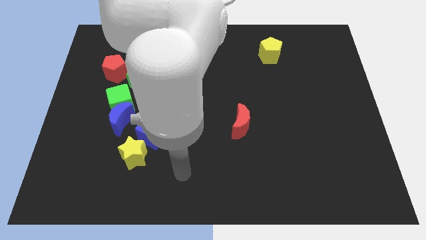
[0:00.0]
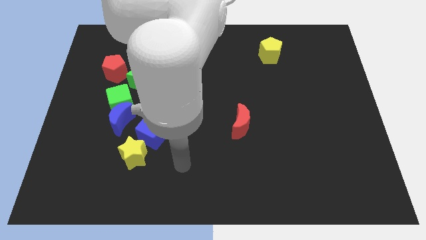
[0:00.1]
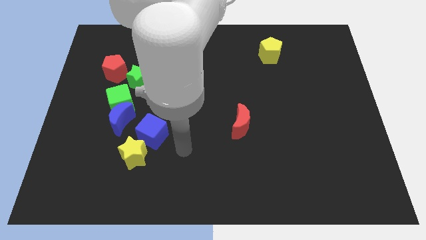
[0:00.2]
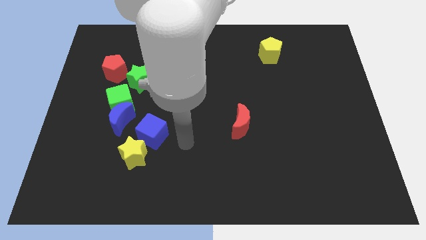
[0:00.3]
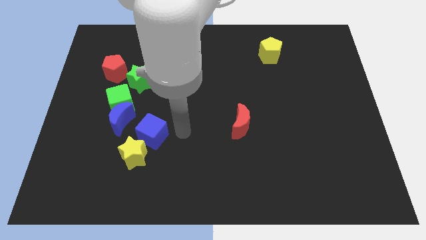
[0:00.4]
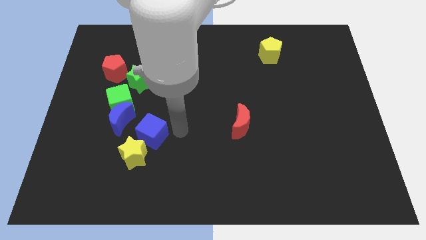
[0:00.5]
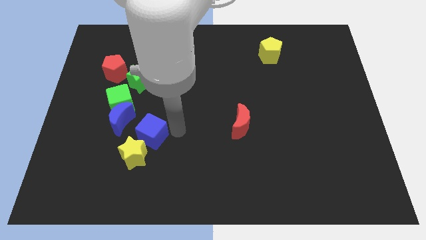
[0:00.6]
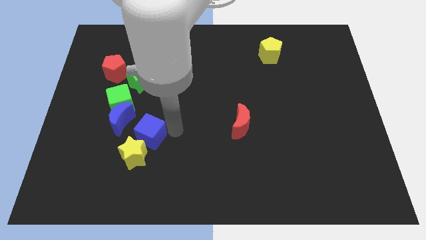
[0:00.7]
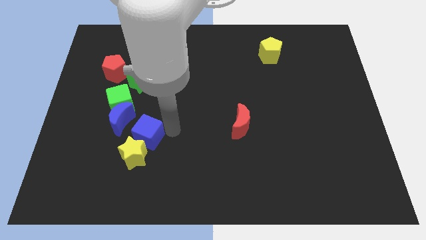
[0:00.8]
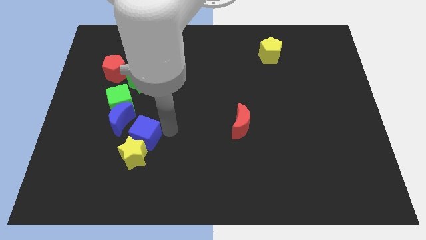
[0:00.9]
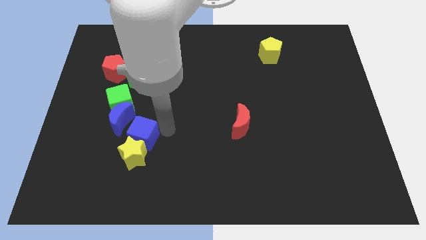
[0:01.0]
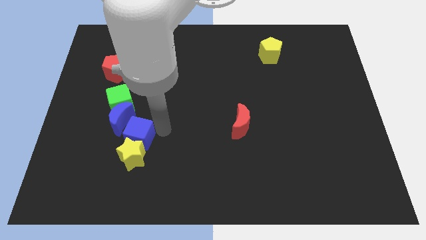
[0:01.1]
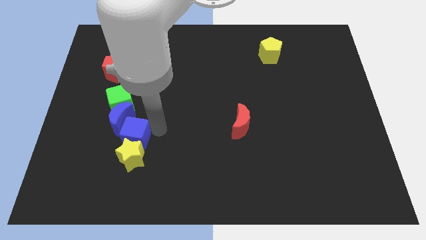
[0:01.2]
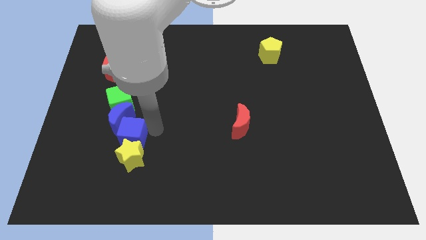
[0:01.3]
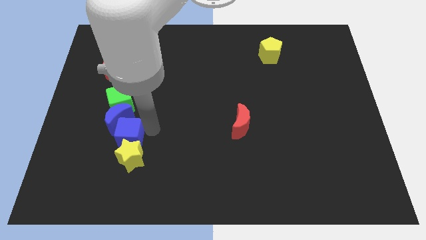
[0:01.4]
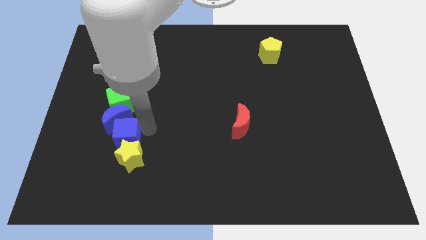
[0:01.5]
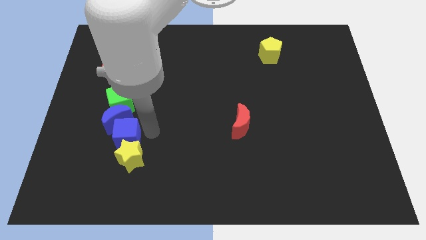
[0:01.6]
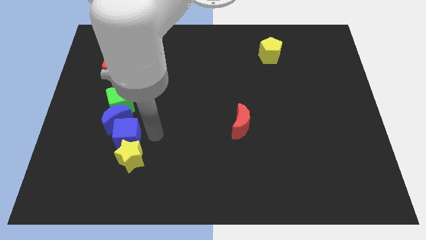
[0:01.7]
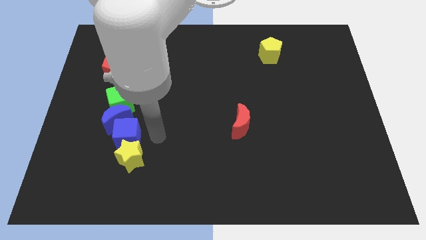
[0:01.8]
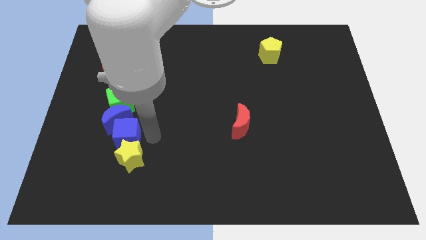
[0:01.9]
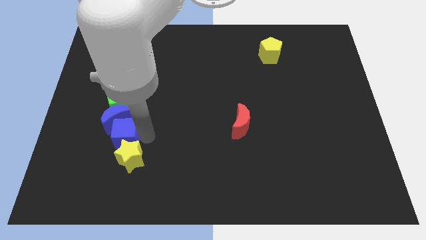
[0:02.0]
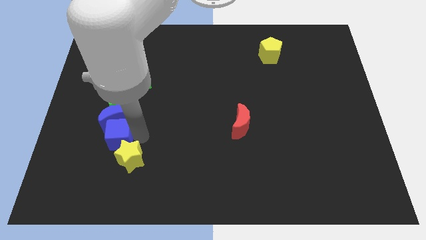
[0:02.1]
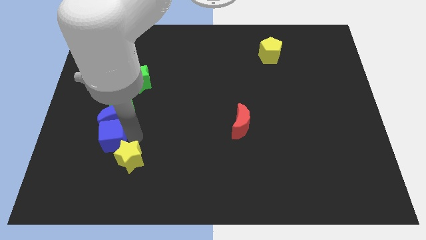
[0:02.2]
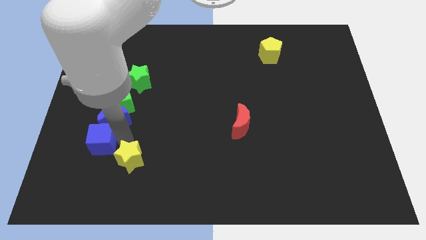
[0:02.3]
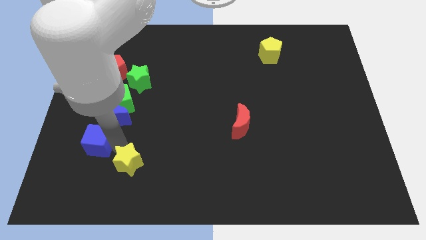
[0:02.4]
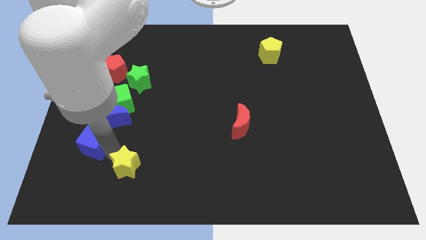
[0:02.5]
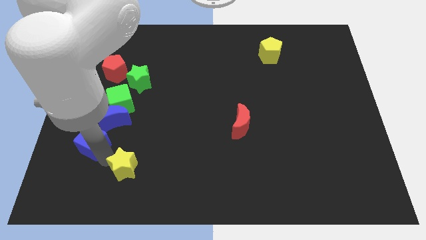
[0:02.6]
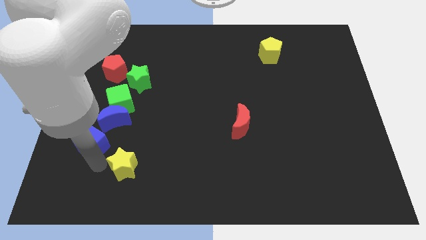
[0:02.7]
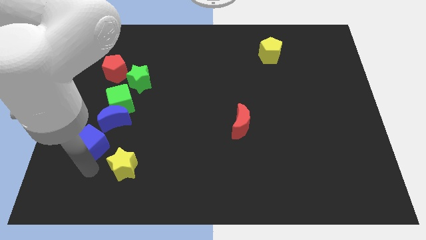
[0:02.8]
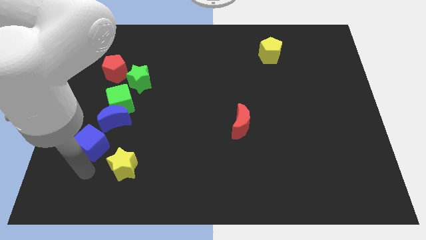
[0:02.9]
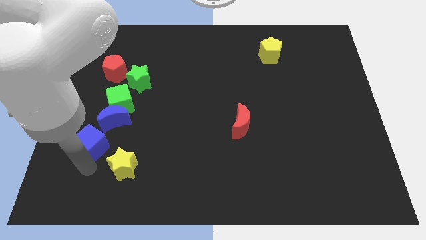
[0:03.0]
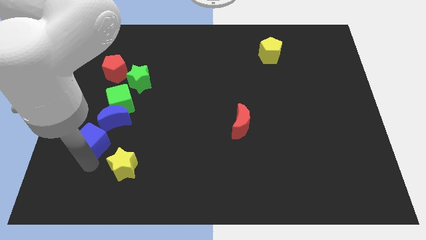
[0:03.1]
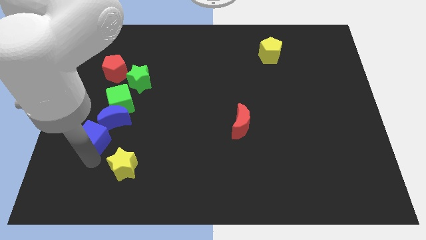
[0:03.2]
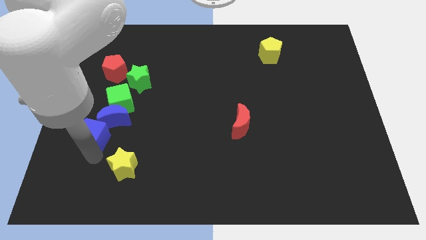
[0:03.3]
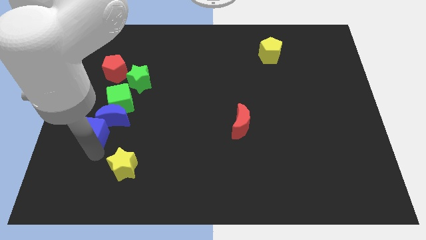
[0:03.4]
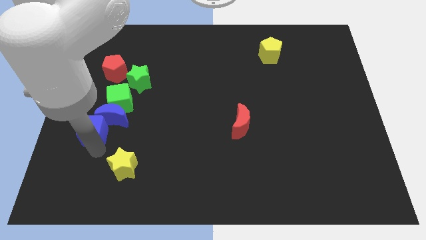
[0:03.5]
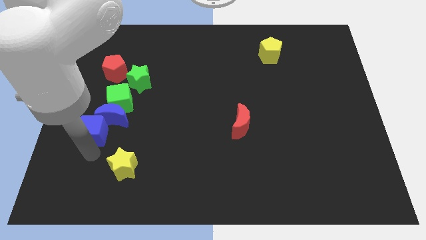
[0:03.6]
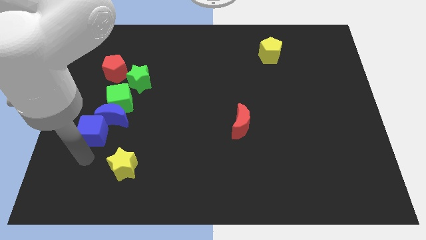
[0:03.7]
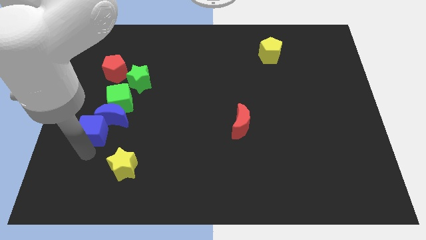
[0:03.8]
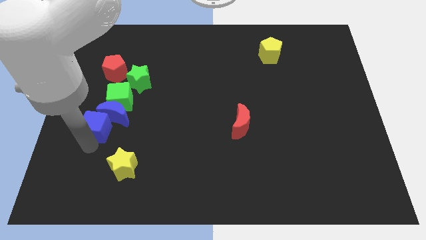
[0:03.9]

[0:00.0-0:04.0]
move the blue cube diagonally up and left a little

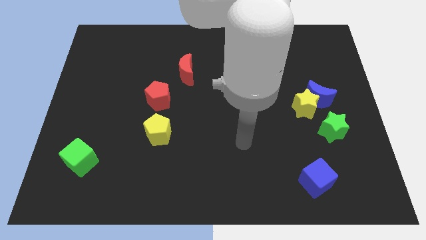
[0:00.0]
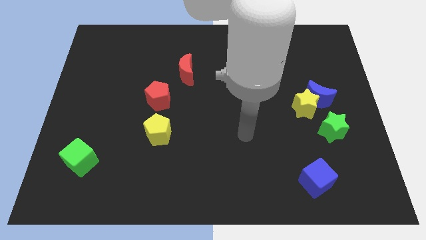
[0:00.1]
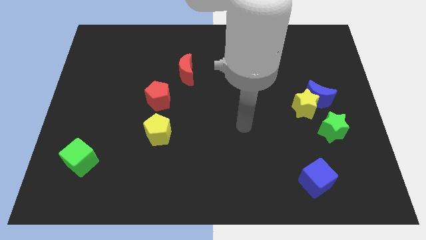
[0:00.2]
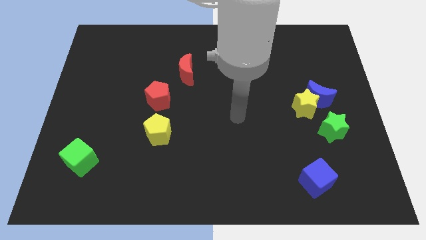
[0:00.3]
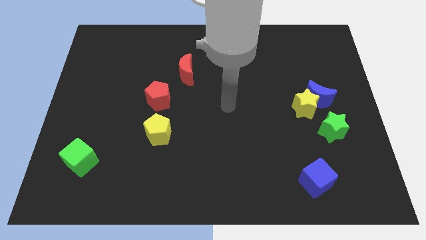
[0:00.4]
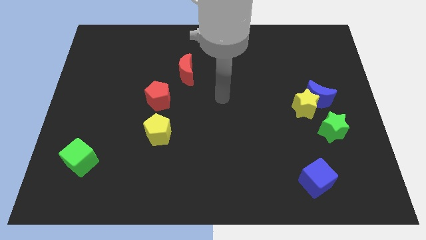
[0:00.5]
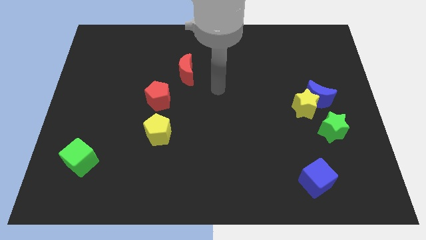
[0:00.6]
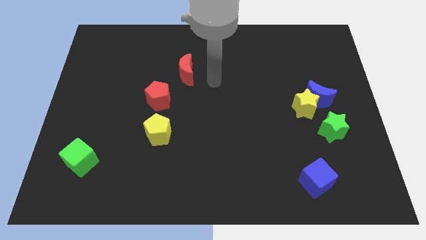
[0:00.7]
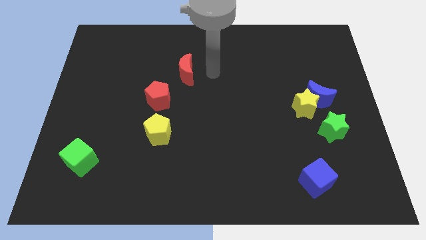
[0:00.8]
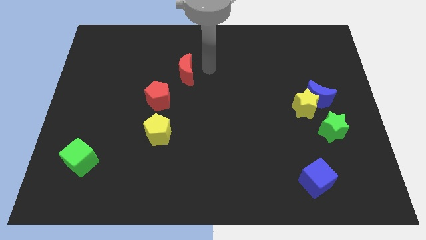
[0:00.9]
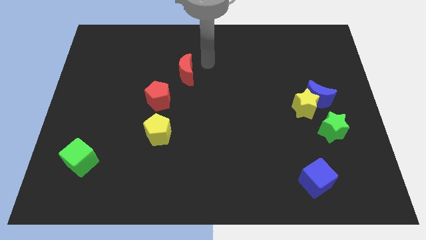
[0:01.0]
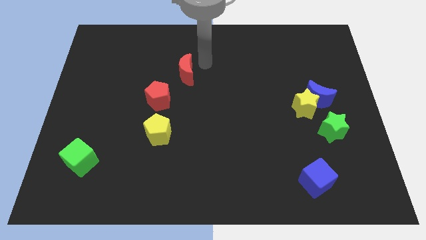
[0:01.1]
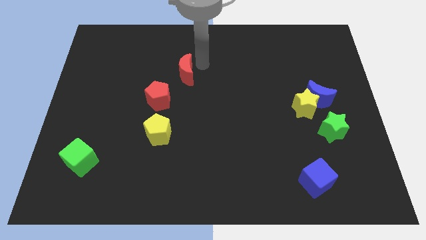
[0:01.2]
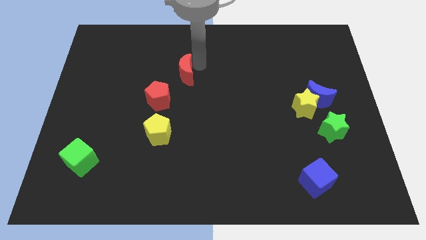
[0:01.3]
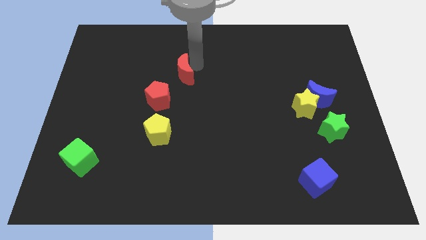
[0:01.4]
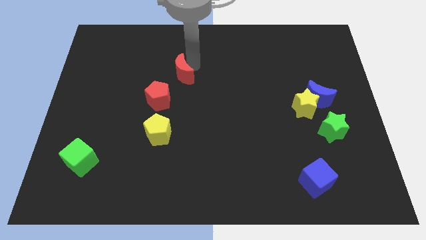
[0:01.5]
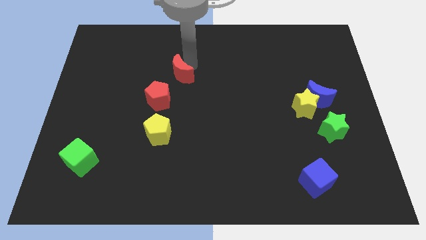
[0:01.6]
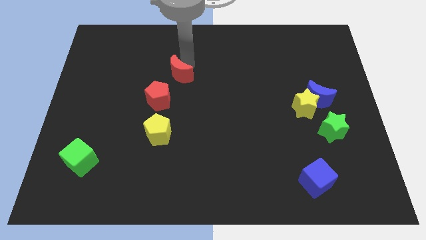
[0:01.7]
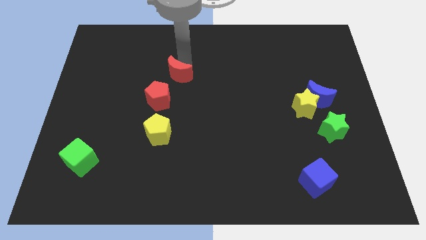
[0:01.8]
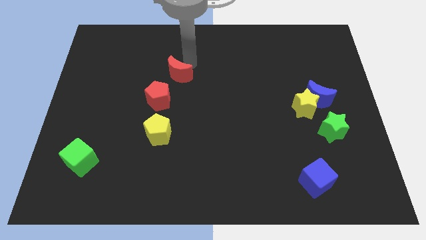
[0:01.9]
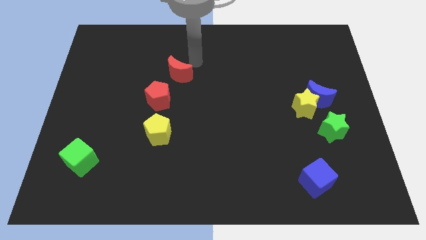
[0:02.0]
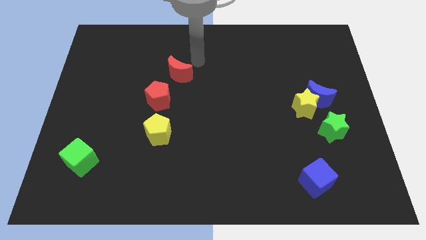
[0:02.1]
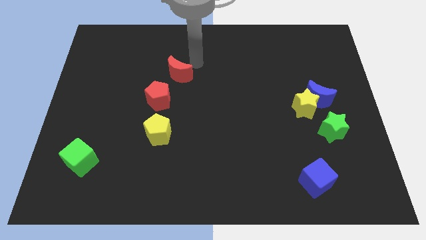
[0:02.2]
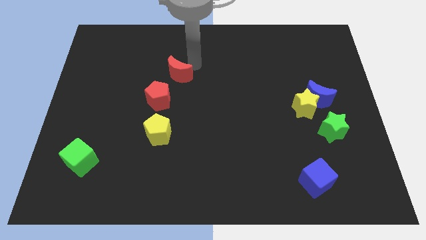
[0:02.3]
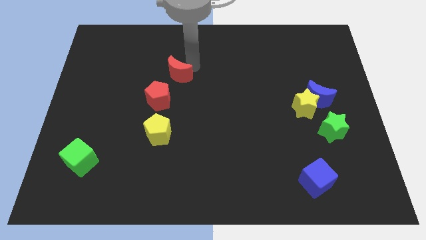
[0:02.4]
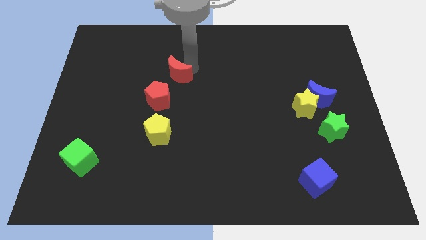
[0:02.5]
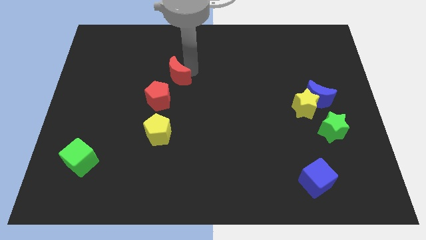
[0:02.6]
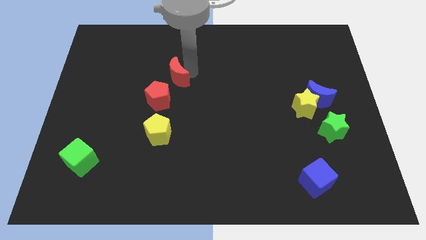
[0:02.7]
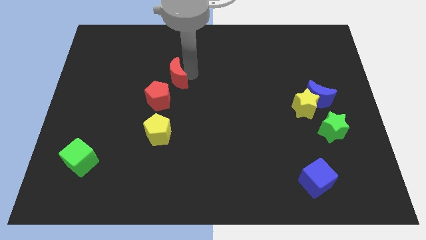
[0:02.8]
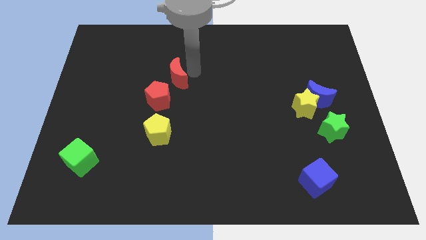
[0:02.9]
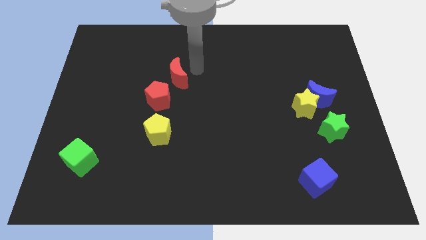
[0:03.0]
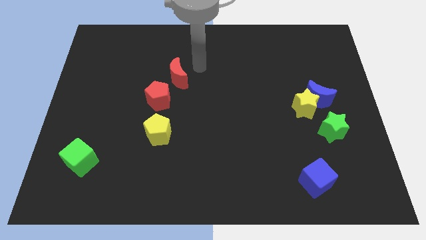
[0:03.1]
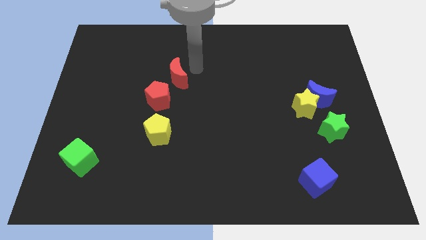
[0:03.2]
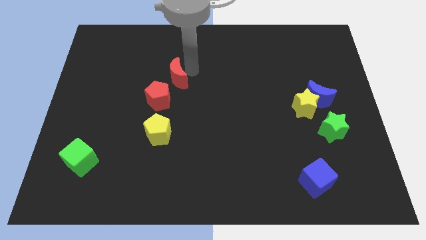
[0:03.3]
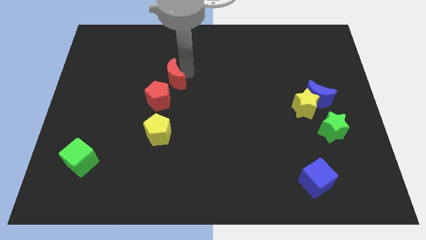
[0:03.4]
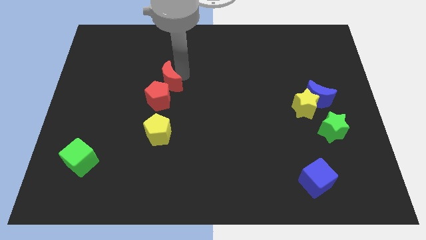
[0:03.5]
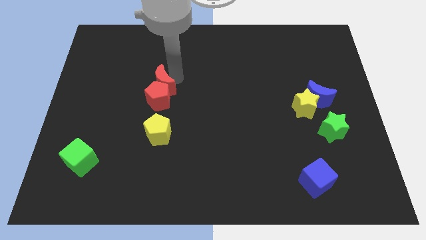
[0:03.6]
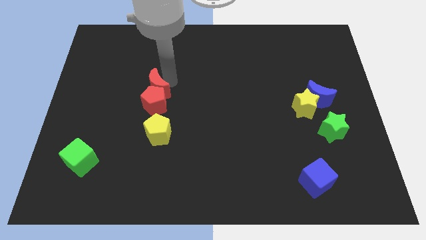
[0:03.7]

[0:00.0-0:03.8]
slightly slide the red moon diagonally downwards and left

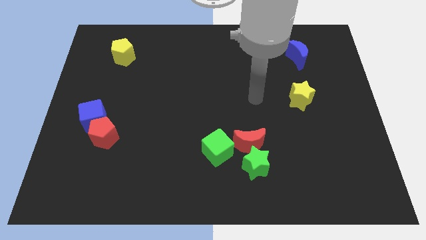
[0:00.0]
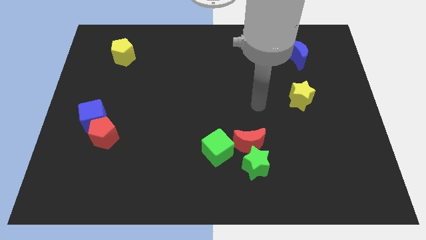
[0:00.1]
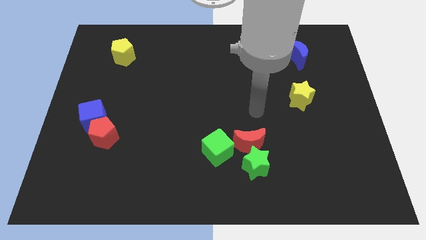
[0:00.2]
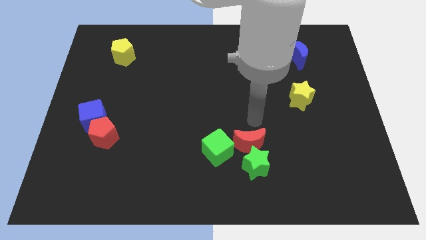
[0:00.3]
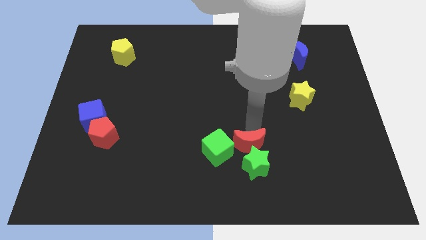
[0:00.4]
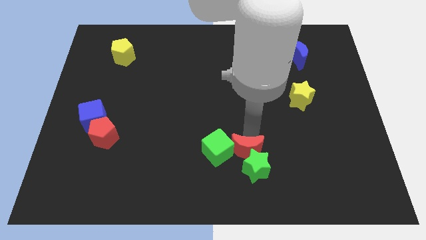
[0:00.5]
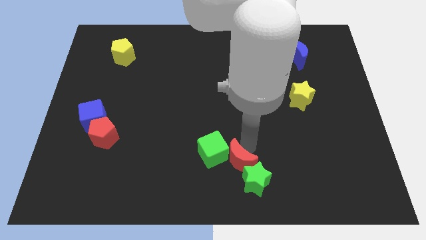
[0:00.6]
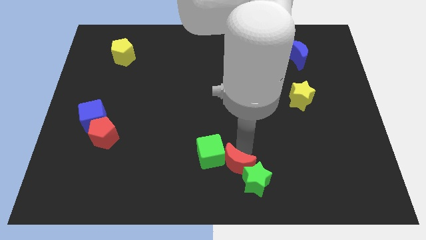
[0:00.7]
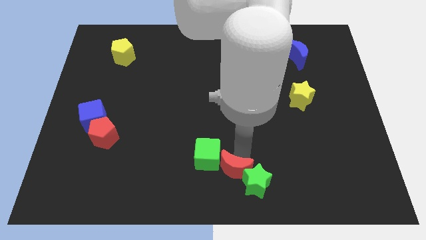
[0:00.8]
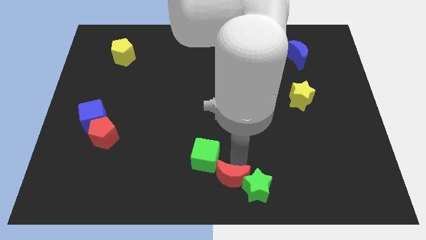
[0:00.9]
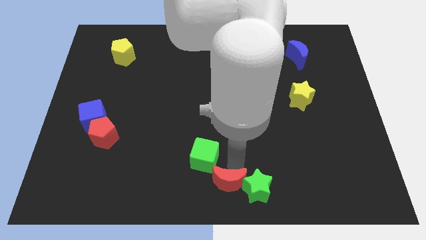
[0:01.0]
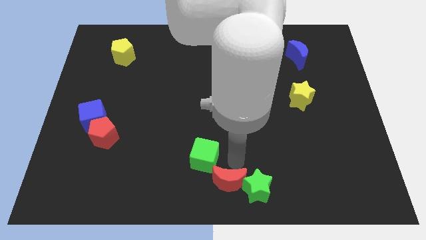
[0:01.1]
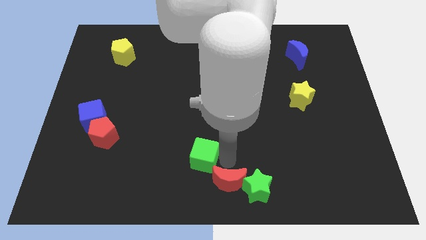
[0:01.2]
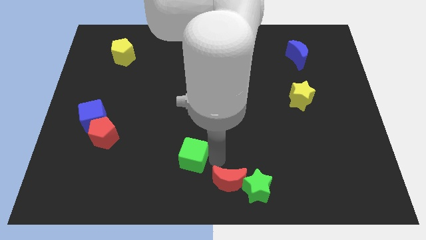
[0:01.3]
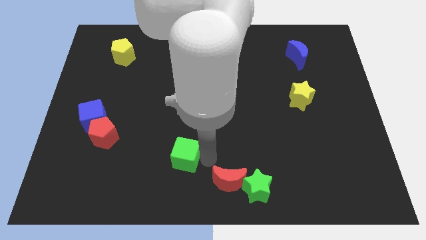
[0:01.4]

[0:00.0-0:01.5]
slightly move the green cube to the left
